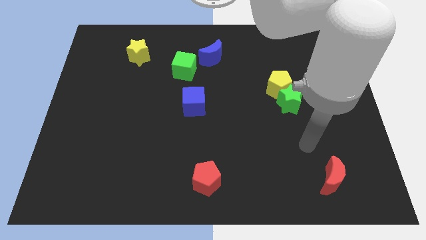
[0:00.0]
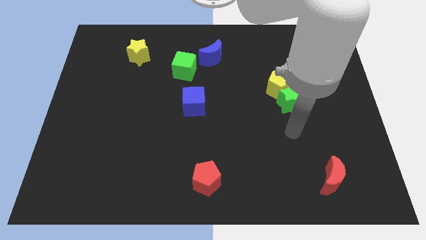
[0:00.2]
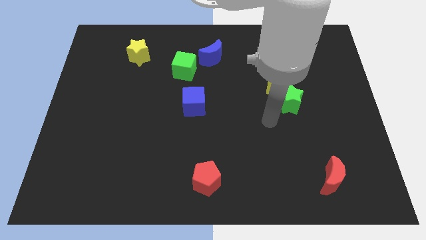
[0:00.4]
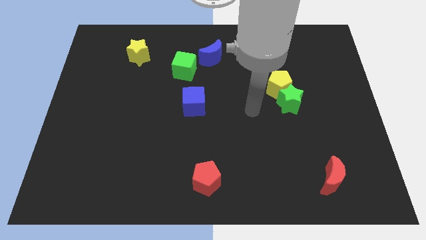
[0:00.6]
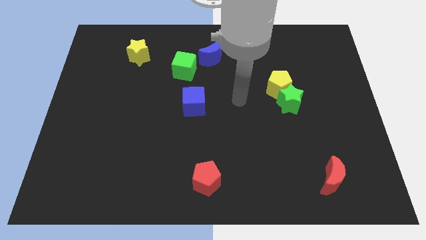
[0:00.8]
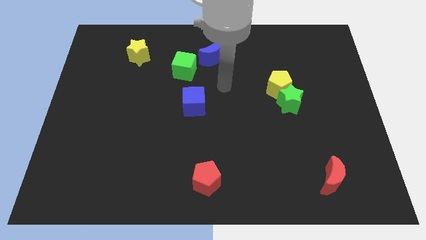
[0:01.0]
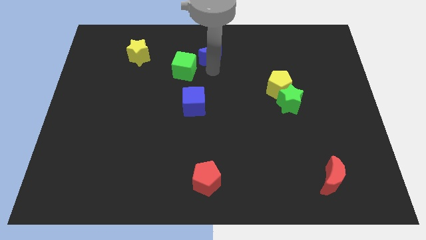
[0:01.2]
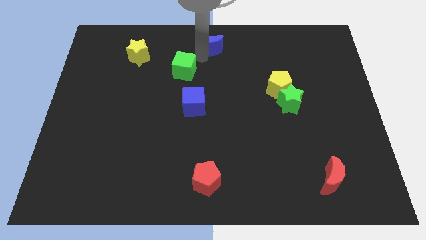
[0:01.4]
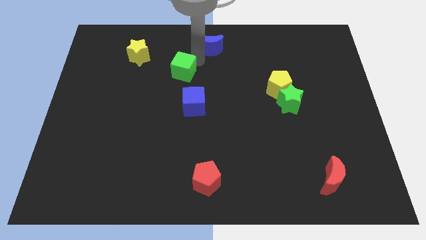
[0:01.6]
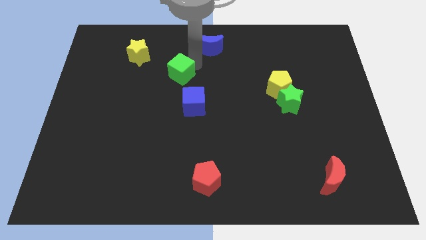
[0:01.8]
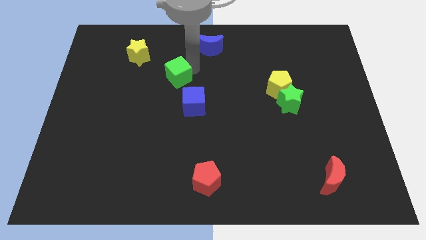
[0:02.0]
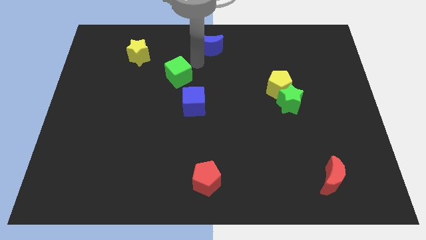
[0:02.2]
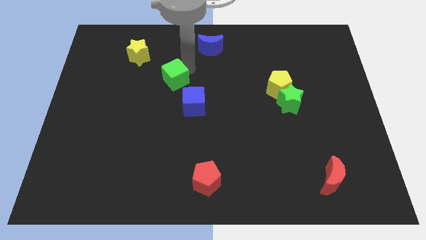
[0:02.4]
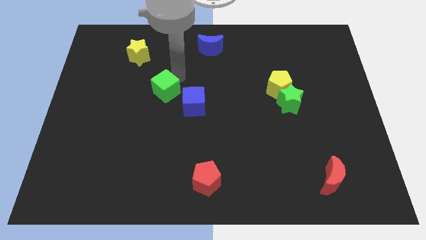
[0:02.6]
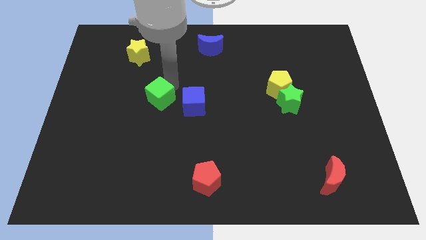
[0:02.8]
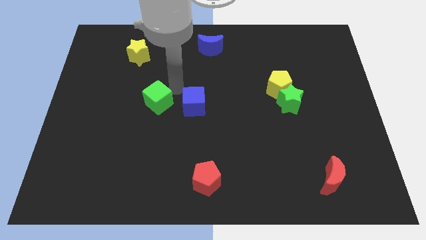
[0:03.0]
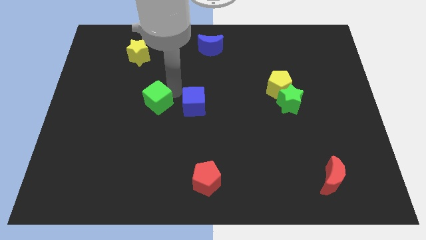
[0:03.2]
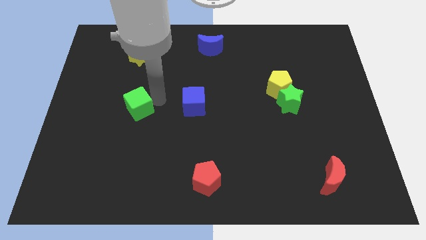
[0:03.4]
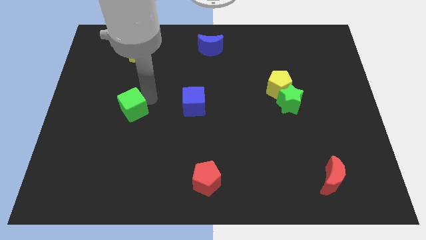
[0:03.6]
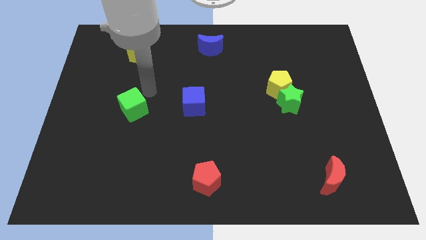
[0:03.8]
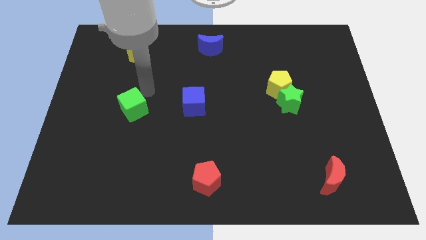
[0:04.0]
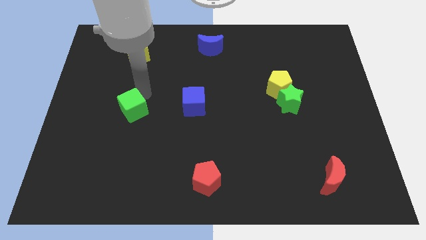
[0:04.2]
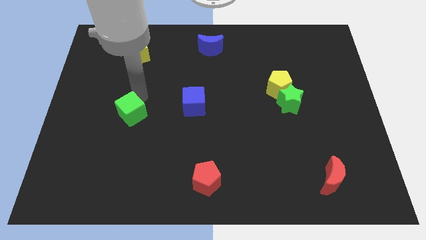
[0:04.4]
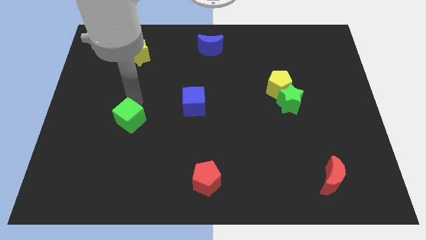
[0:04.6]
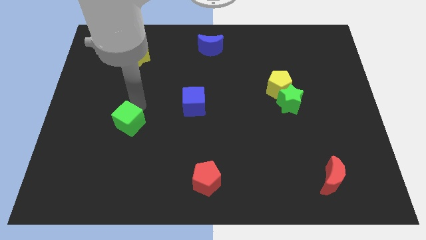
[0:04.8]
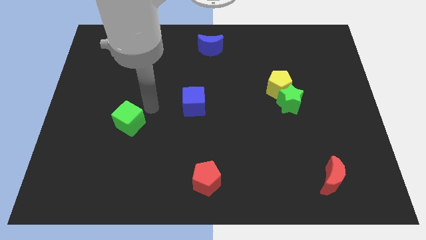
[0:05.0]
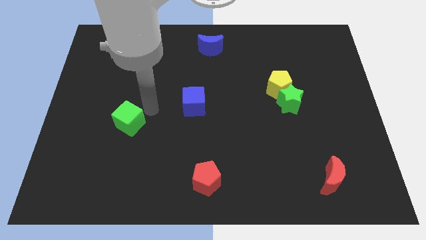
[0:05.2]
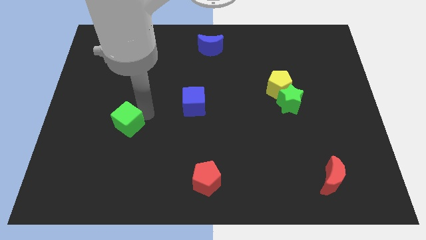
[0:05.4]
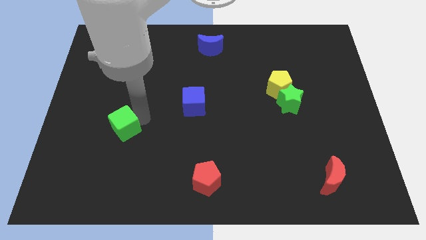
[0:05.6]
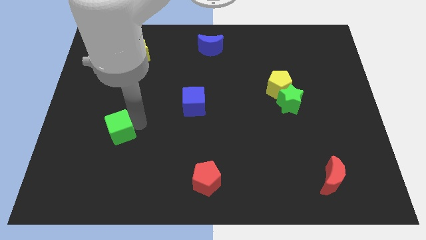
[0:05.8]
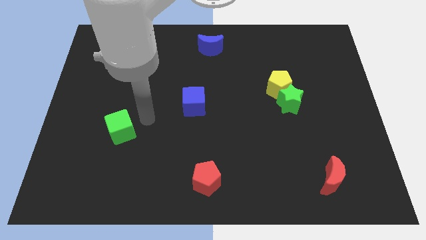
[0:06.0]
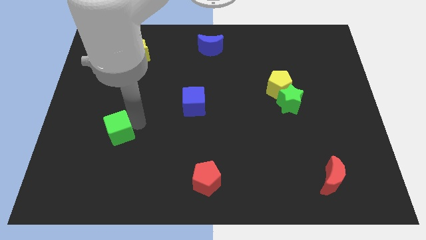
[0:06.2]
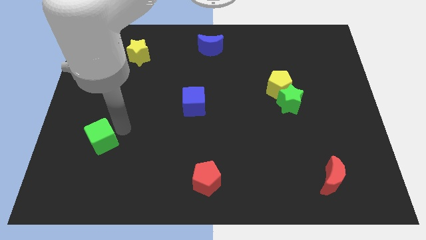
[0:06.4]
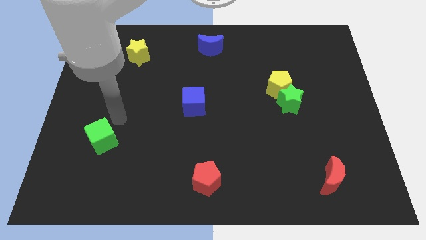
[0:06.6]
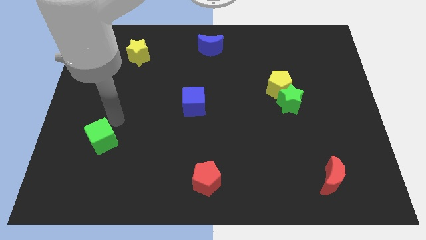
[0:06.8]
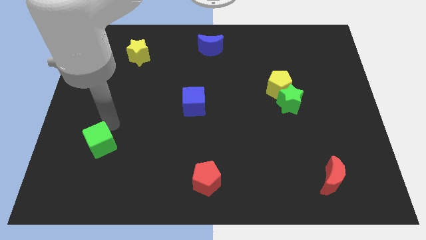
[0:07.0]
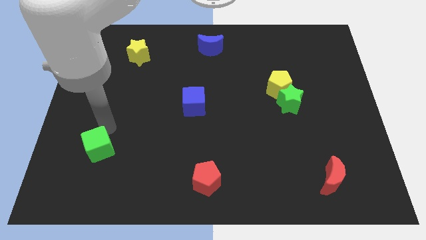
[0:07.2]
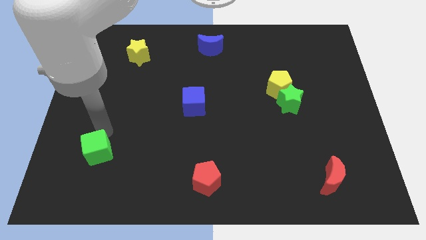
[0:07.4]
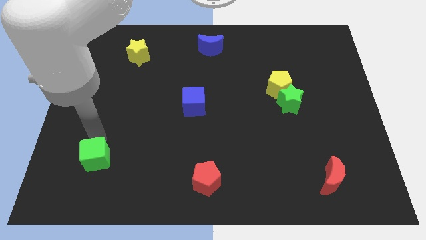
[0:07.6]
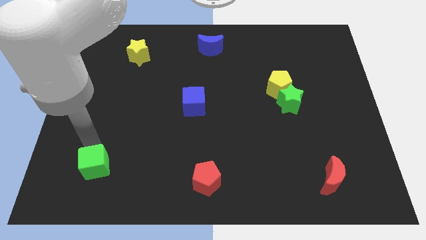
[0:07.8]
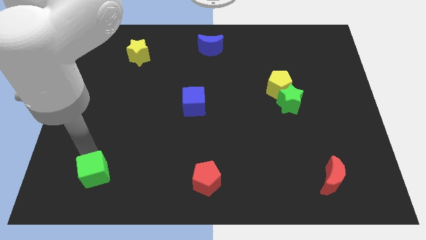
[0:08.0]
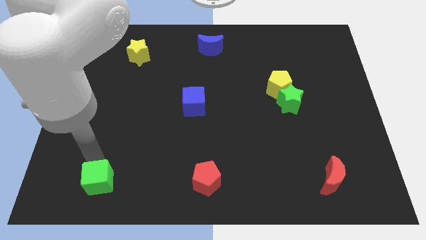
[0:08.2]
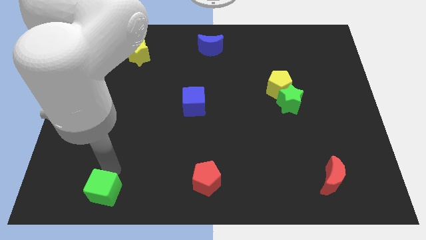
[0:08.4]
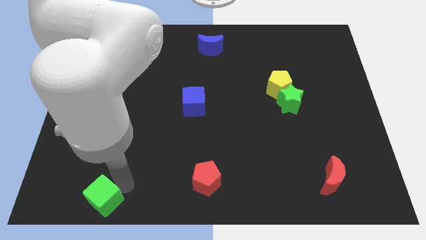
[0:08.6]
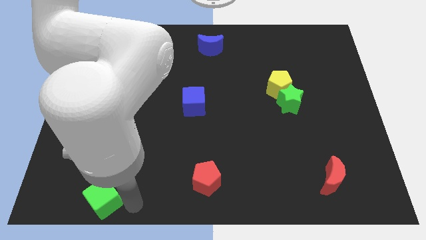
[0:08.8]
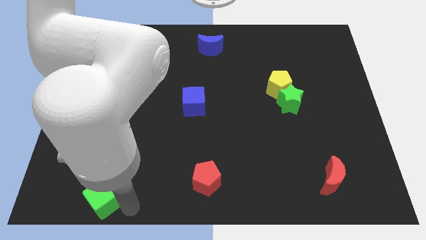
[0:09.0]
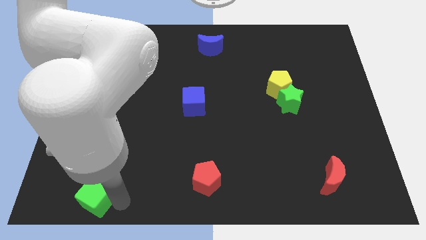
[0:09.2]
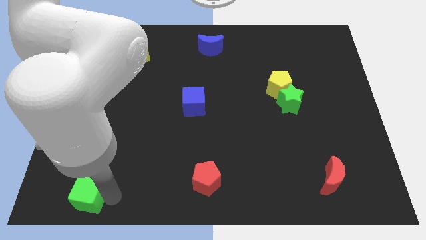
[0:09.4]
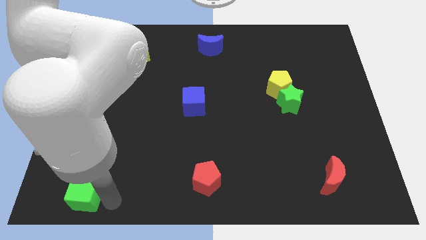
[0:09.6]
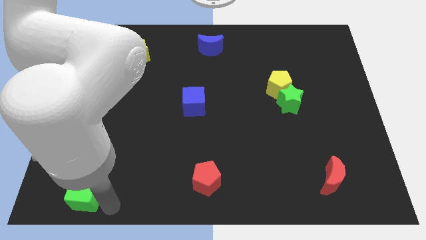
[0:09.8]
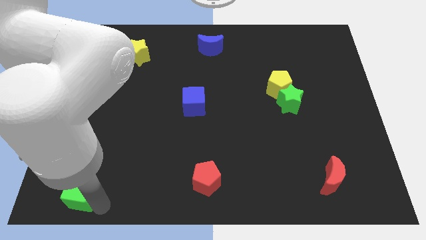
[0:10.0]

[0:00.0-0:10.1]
move the green cube to the bottom left

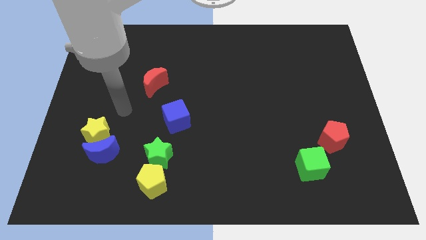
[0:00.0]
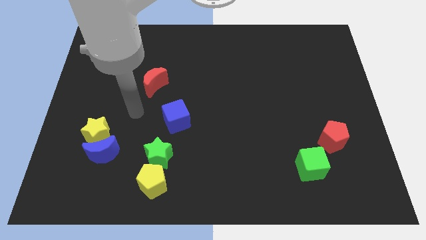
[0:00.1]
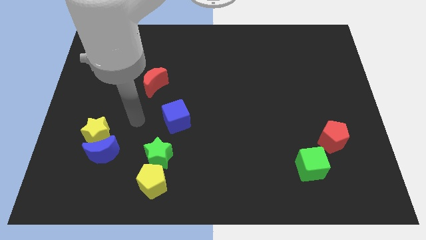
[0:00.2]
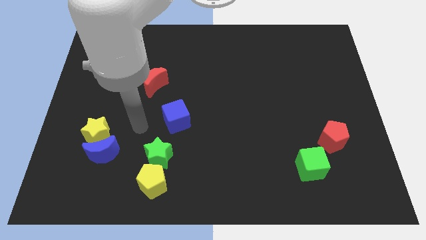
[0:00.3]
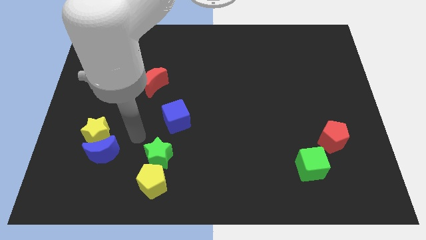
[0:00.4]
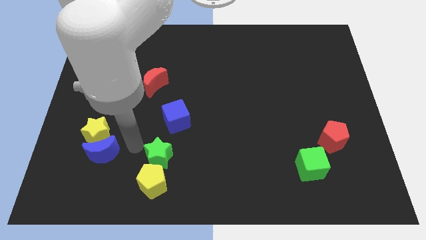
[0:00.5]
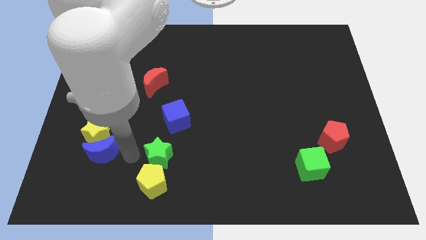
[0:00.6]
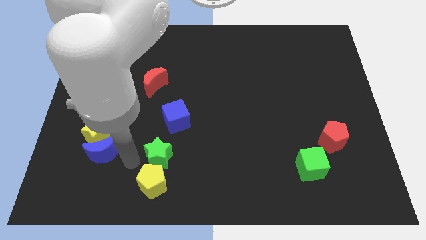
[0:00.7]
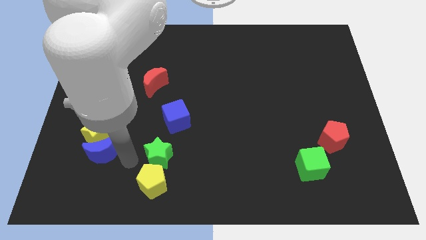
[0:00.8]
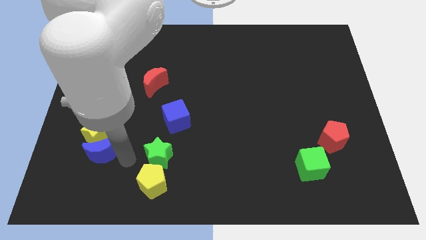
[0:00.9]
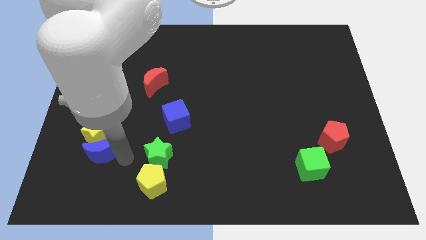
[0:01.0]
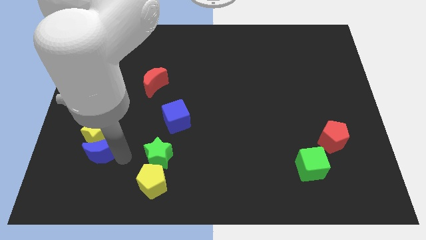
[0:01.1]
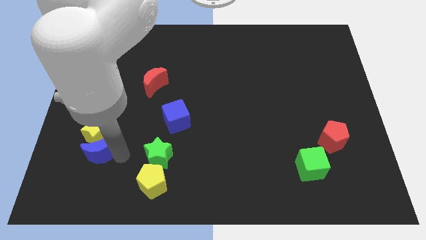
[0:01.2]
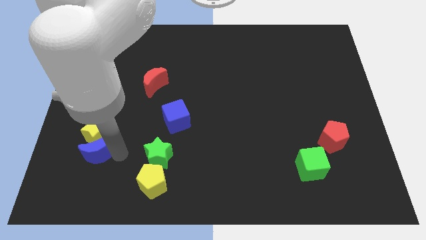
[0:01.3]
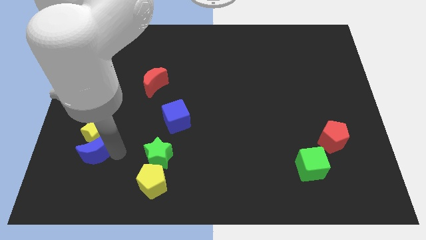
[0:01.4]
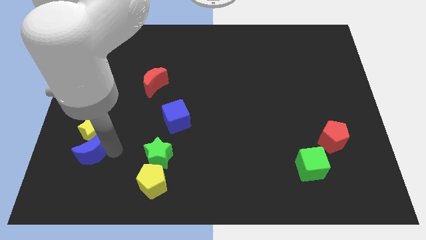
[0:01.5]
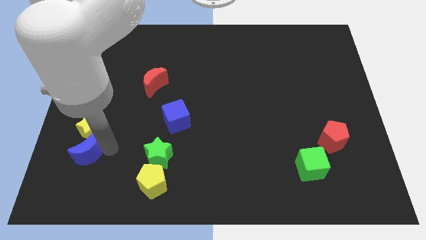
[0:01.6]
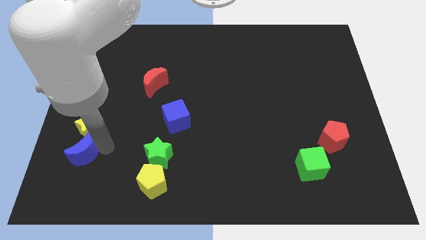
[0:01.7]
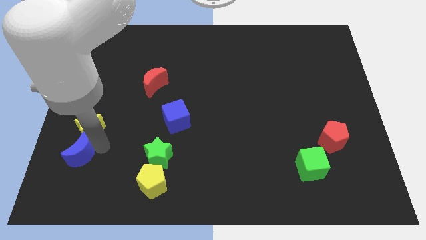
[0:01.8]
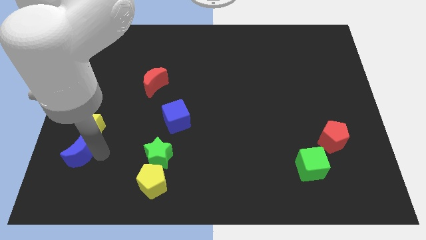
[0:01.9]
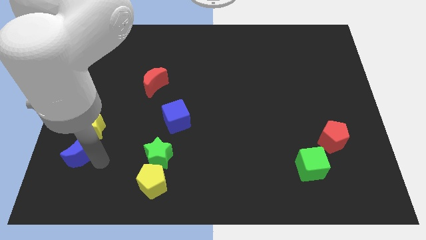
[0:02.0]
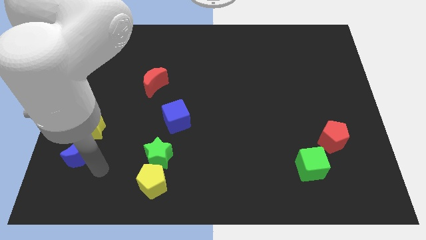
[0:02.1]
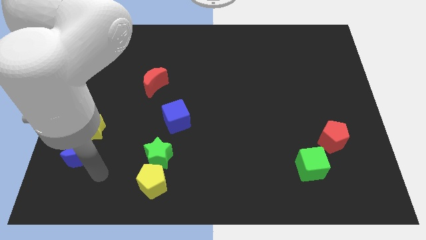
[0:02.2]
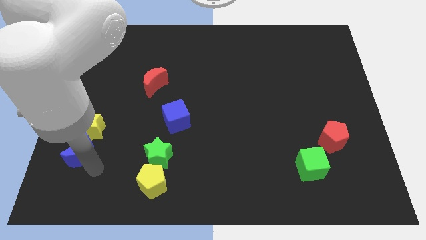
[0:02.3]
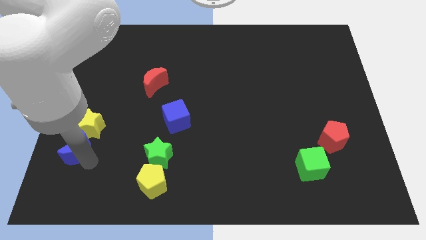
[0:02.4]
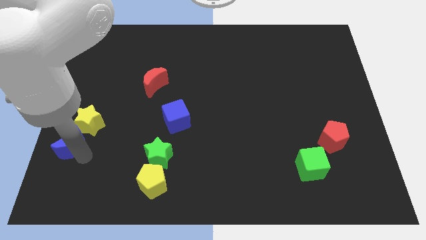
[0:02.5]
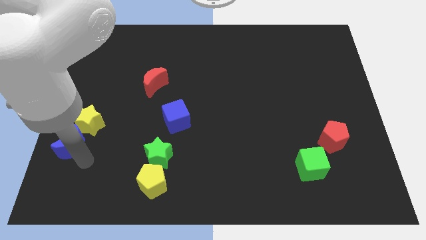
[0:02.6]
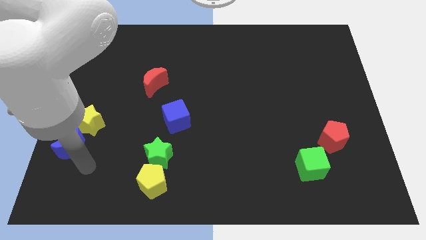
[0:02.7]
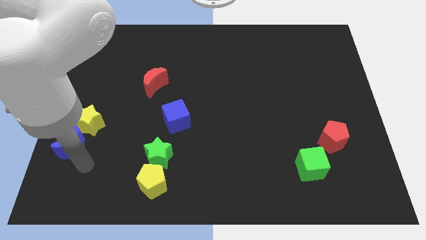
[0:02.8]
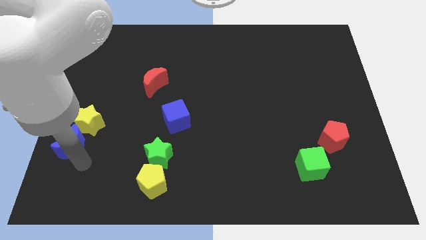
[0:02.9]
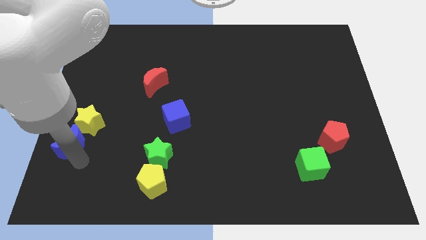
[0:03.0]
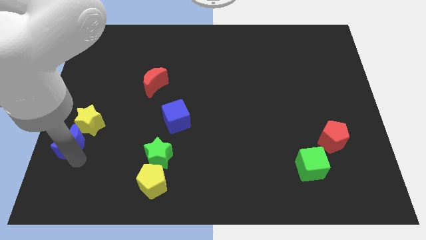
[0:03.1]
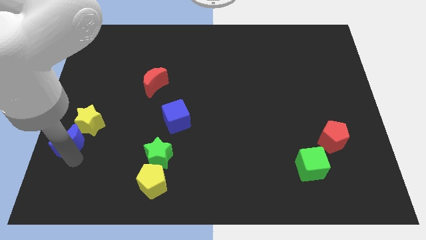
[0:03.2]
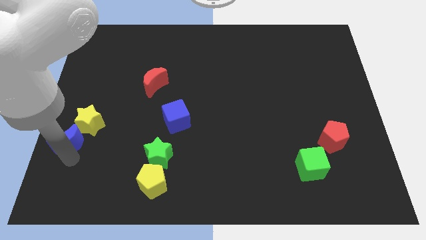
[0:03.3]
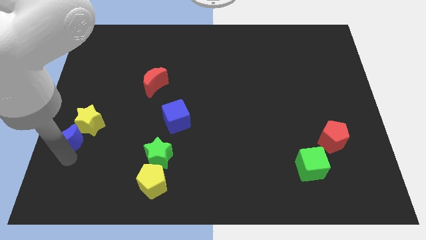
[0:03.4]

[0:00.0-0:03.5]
slide the blue moon to the left side of the board
